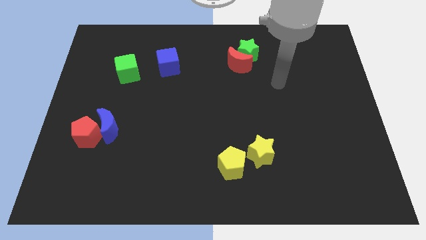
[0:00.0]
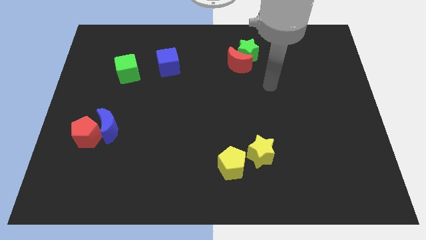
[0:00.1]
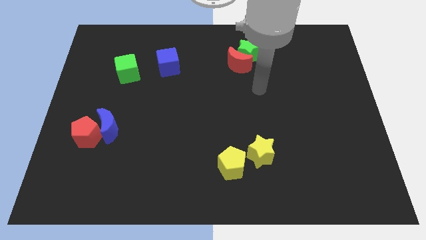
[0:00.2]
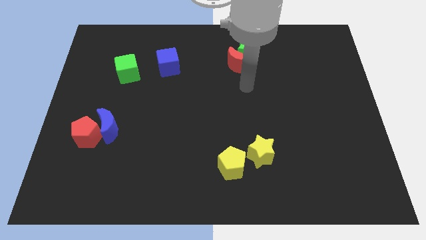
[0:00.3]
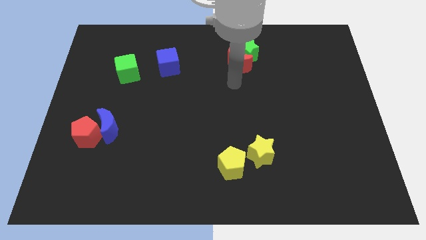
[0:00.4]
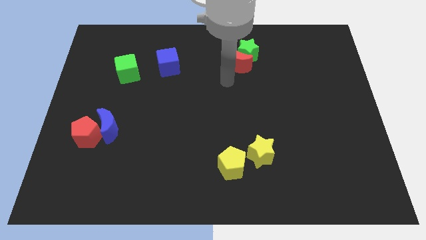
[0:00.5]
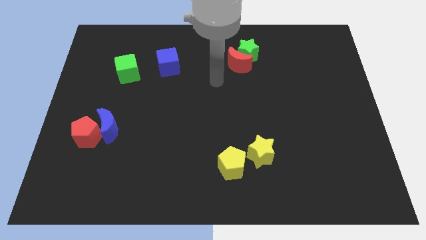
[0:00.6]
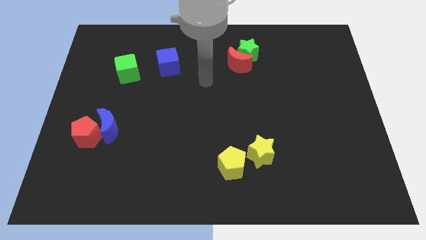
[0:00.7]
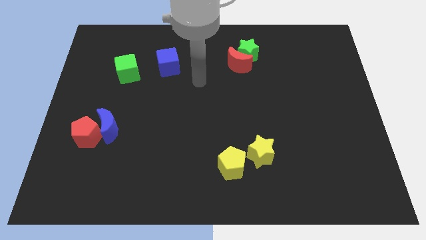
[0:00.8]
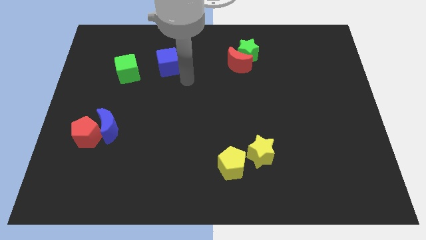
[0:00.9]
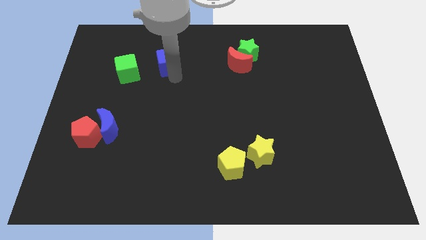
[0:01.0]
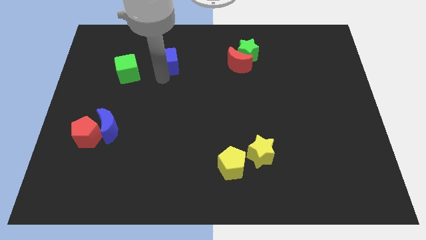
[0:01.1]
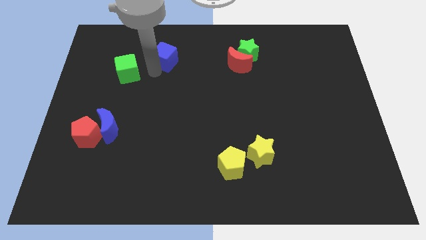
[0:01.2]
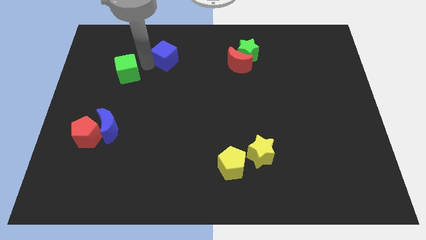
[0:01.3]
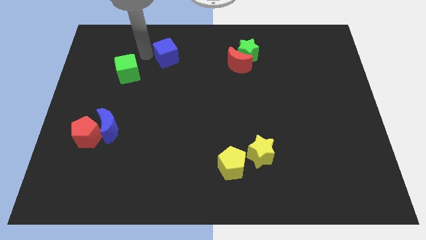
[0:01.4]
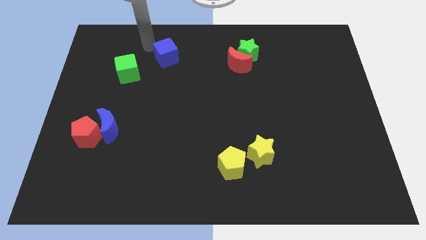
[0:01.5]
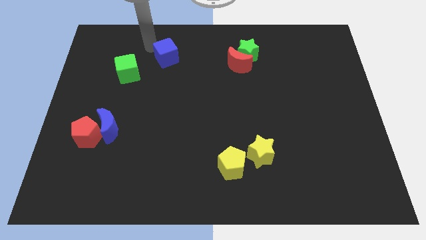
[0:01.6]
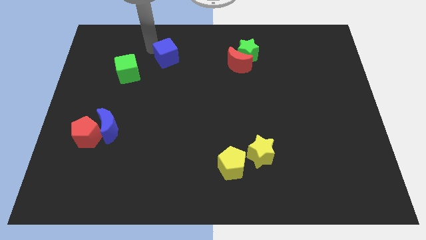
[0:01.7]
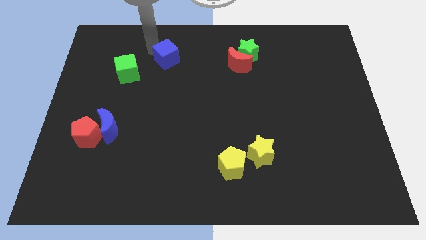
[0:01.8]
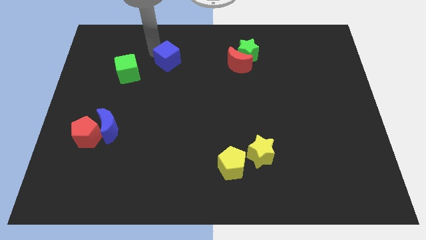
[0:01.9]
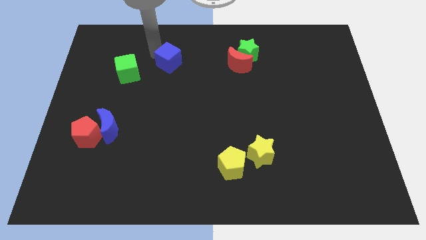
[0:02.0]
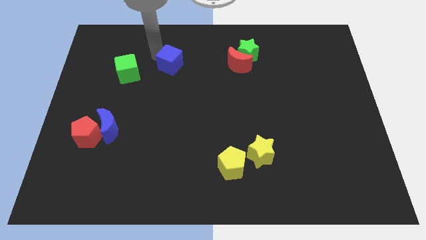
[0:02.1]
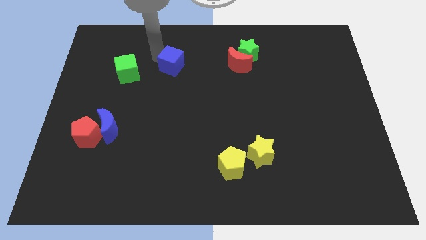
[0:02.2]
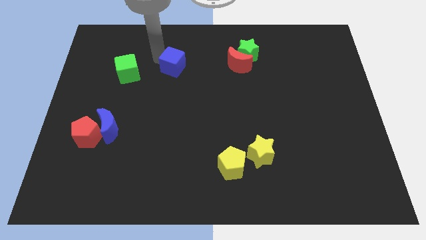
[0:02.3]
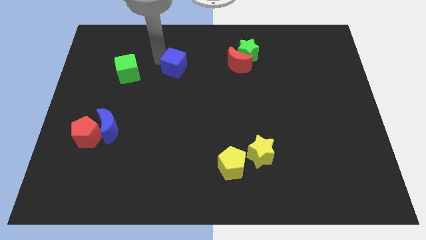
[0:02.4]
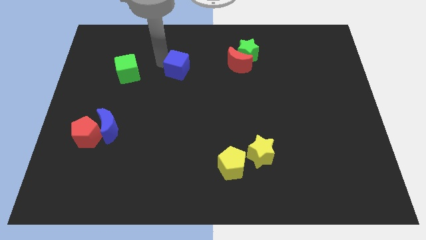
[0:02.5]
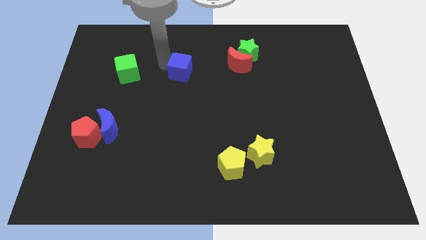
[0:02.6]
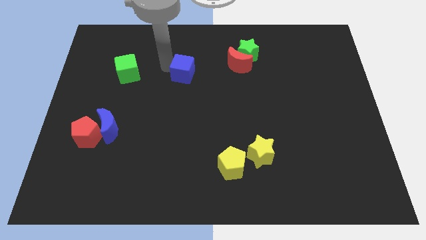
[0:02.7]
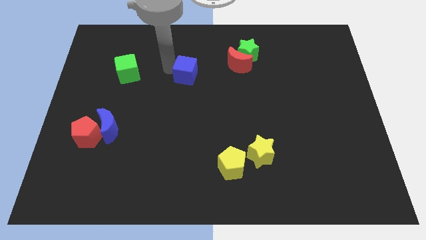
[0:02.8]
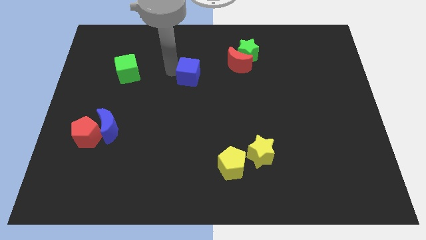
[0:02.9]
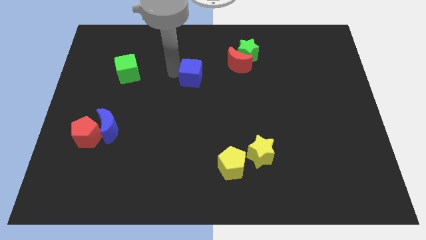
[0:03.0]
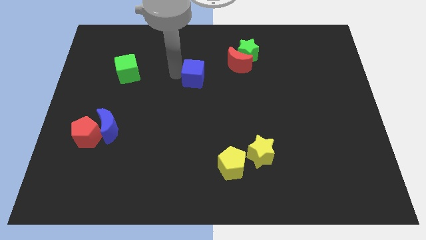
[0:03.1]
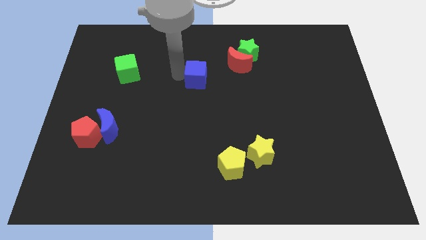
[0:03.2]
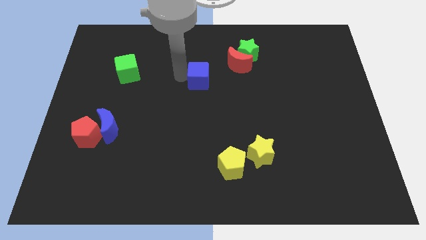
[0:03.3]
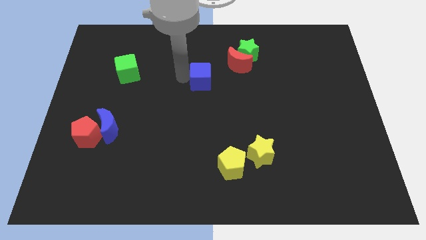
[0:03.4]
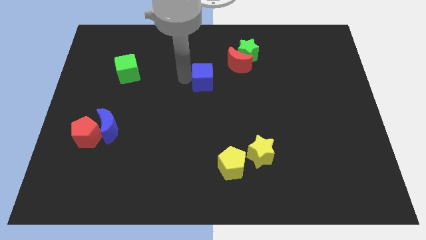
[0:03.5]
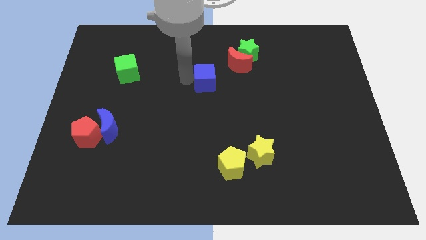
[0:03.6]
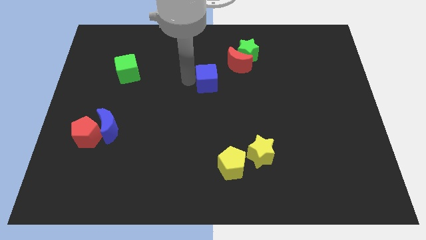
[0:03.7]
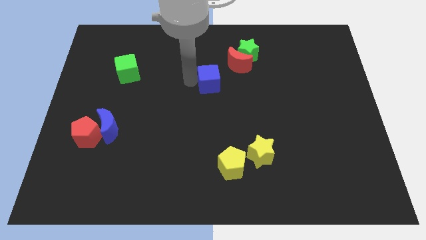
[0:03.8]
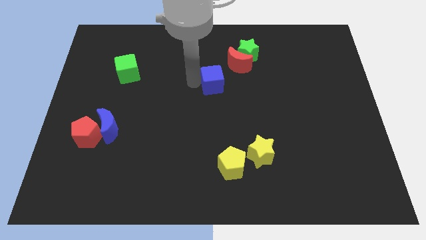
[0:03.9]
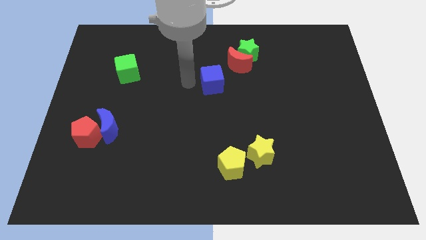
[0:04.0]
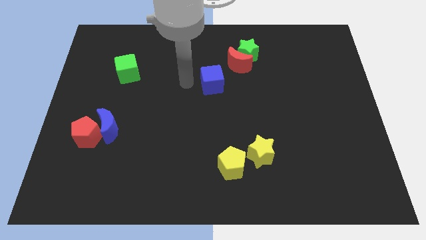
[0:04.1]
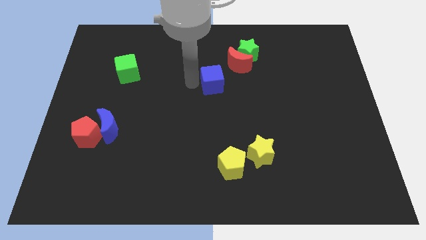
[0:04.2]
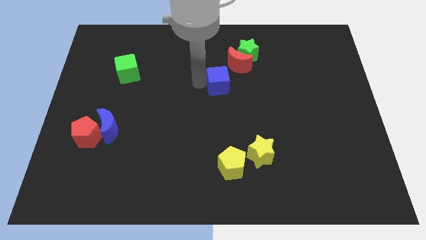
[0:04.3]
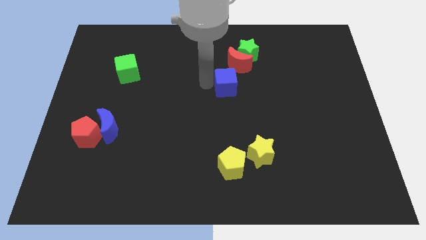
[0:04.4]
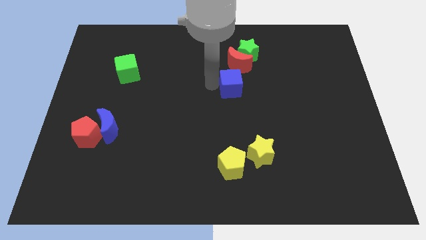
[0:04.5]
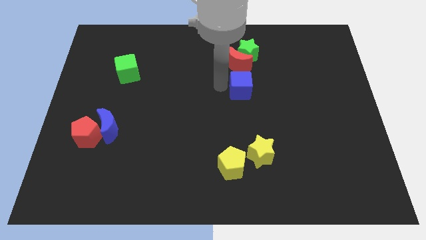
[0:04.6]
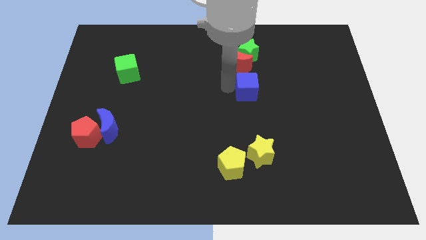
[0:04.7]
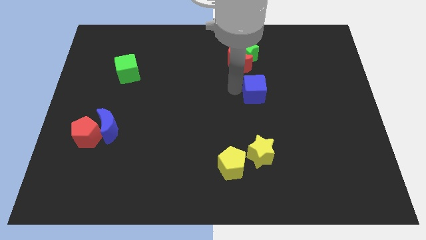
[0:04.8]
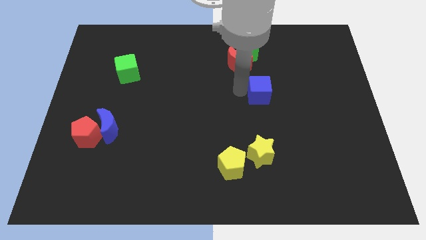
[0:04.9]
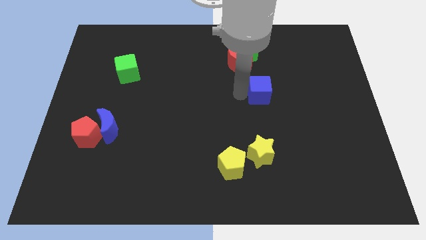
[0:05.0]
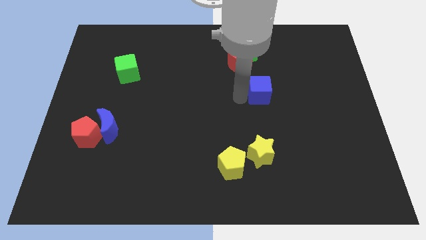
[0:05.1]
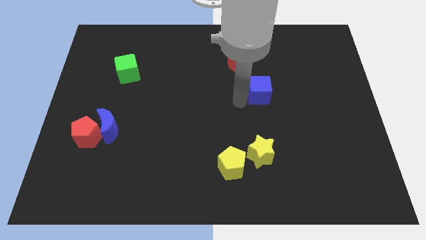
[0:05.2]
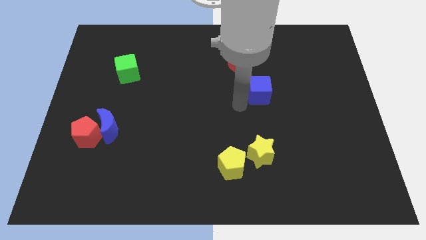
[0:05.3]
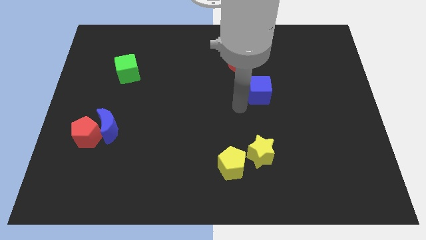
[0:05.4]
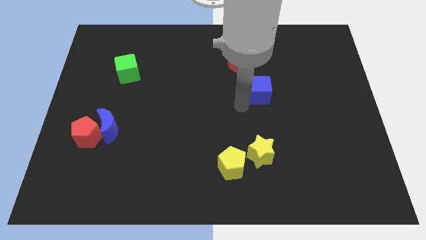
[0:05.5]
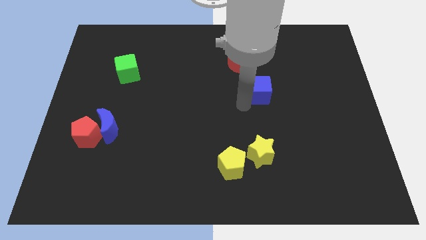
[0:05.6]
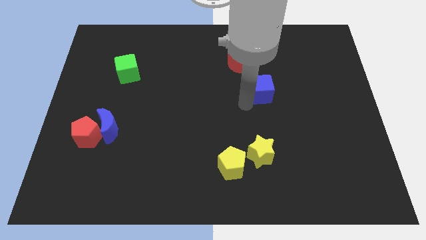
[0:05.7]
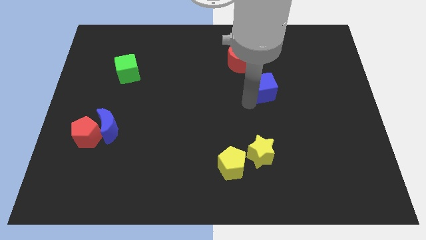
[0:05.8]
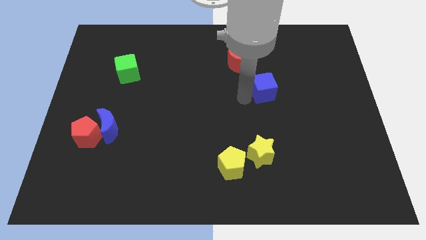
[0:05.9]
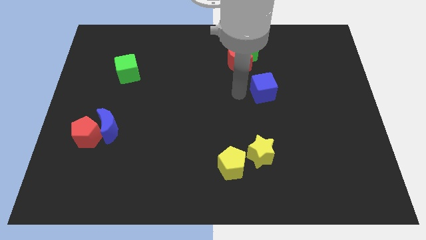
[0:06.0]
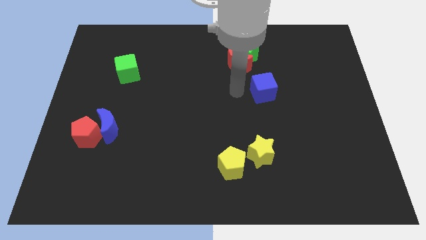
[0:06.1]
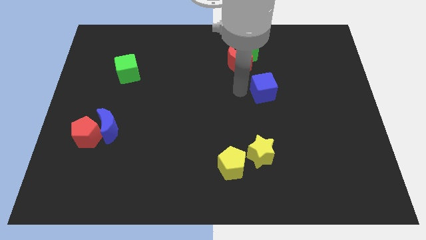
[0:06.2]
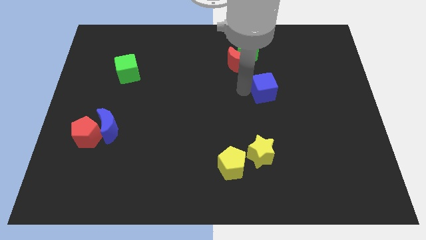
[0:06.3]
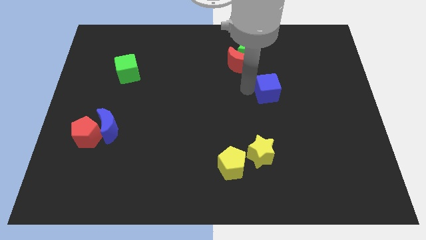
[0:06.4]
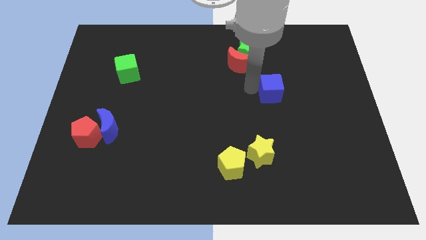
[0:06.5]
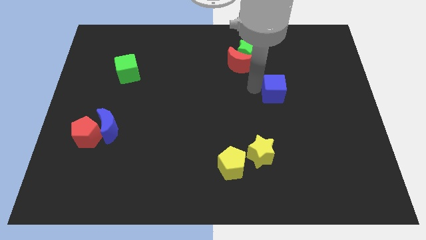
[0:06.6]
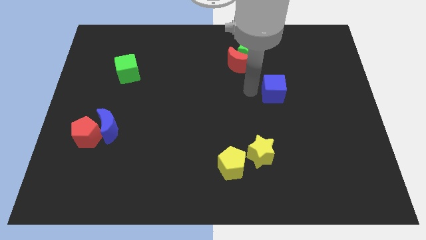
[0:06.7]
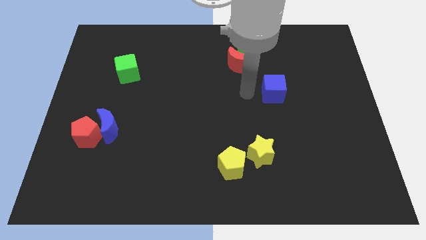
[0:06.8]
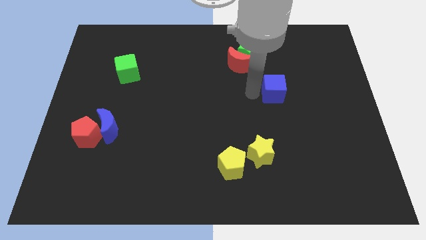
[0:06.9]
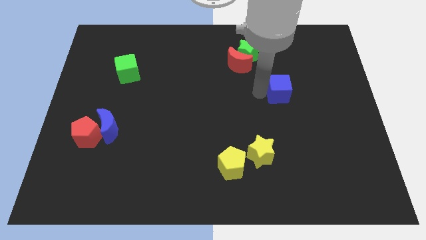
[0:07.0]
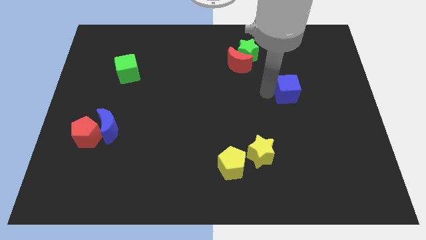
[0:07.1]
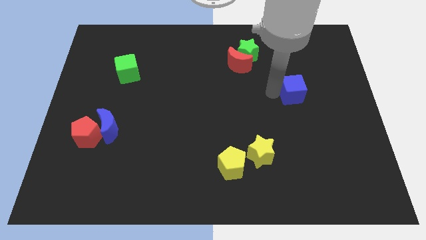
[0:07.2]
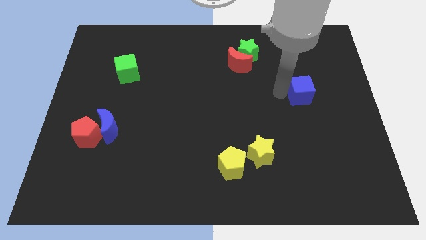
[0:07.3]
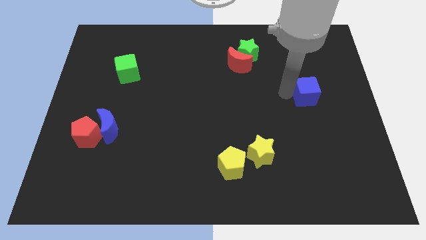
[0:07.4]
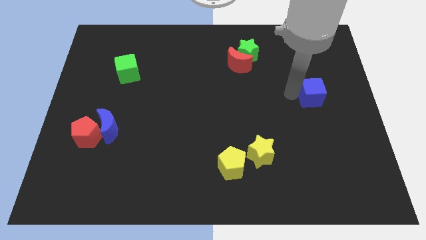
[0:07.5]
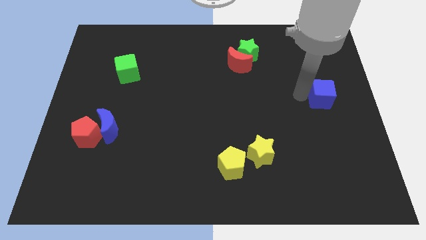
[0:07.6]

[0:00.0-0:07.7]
push the blue cube to the center right
